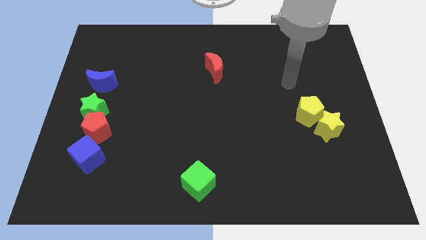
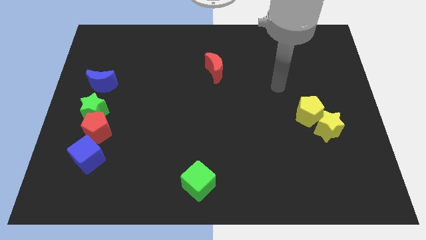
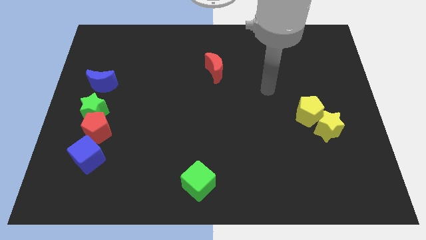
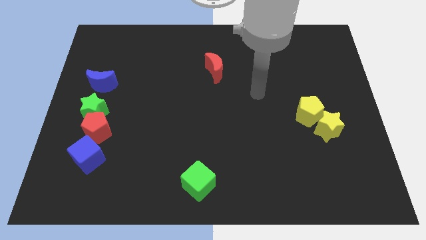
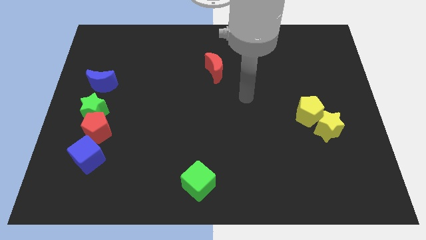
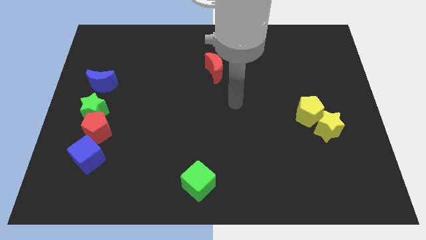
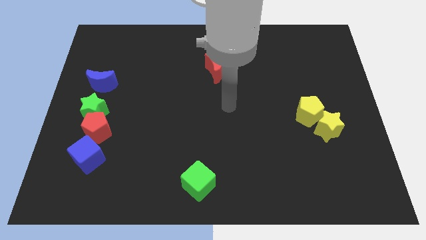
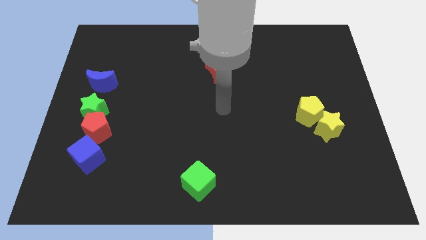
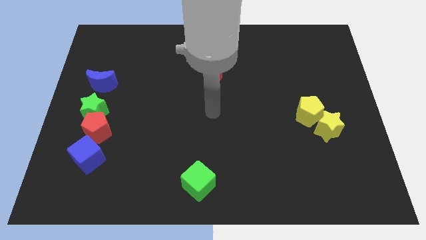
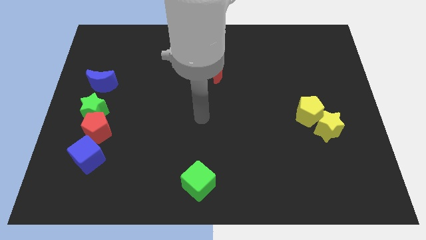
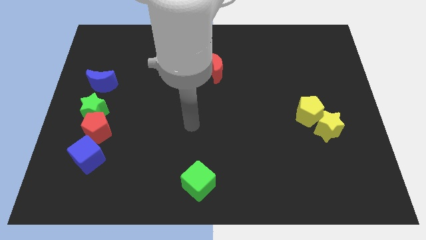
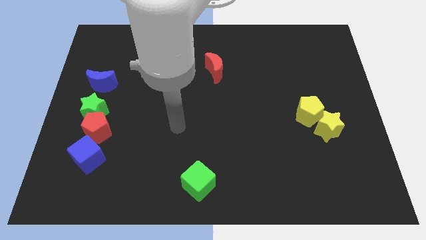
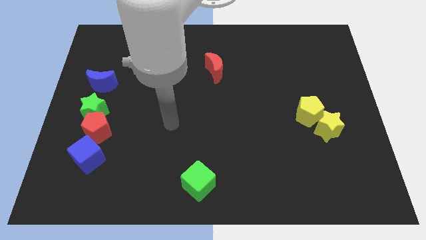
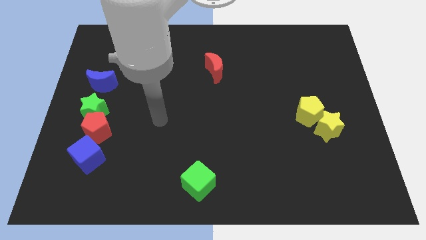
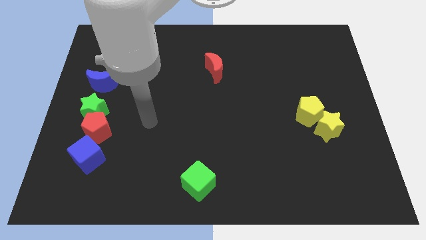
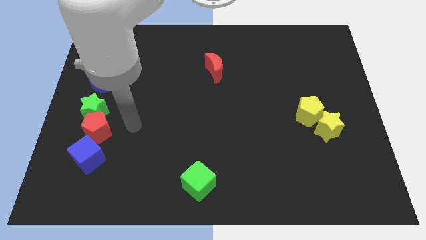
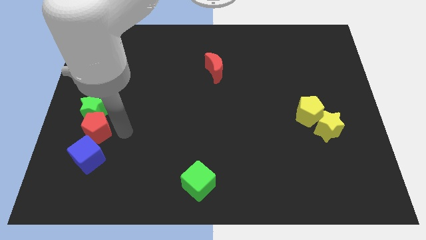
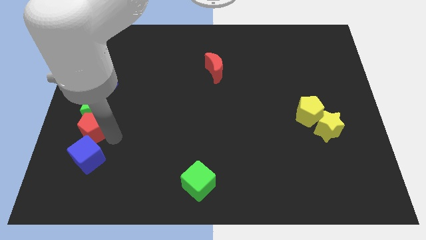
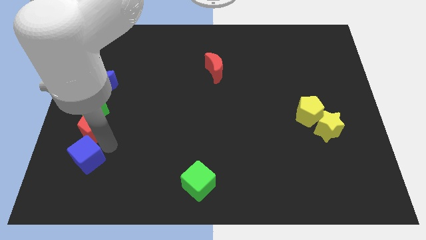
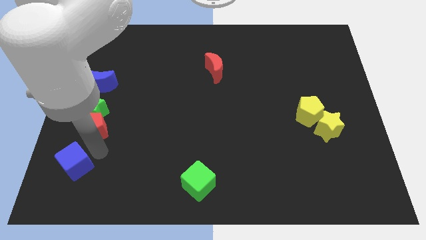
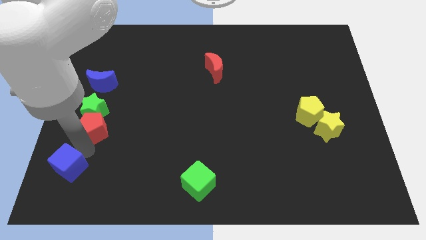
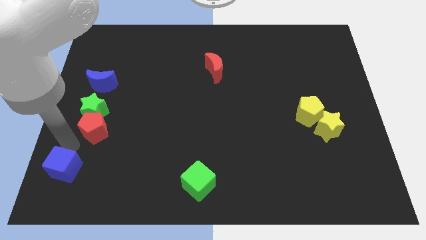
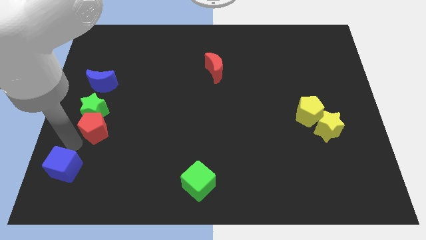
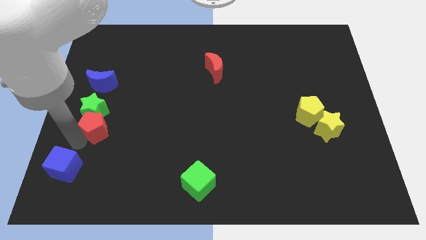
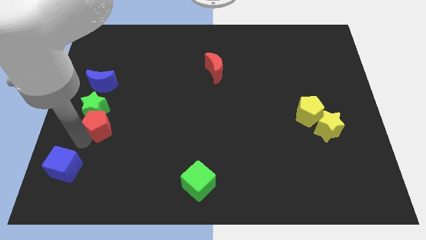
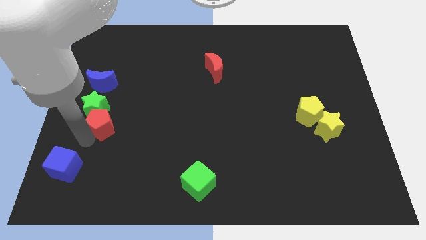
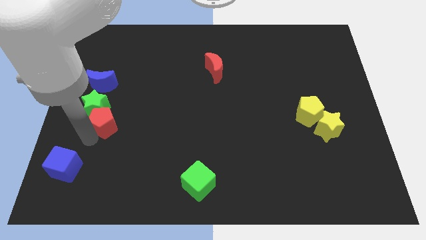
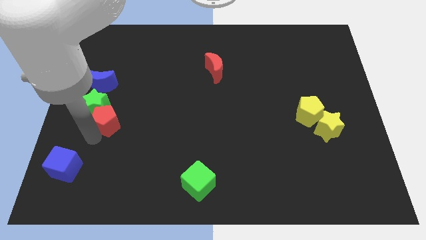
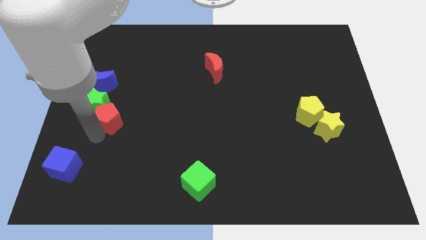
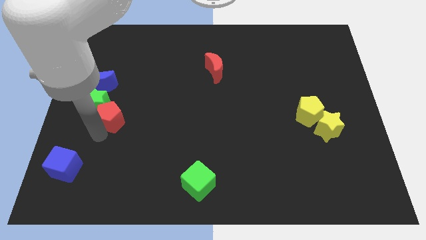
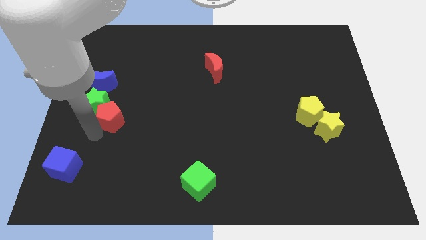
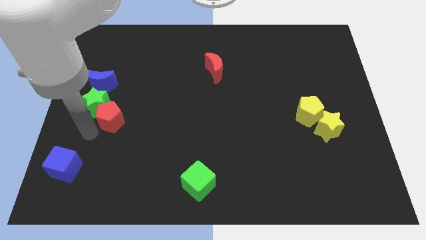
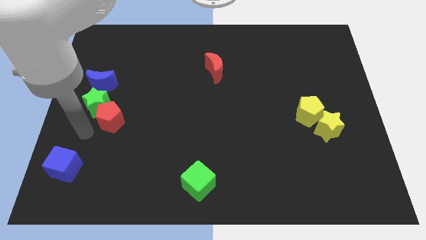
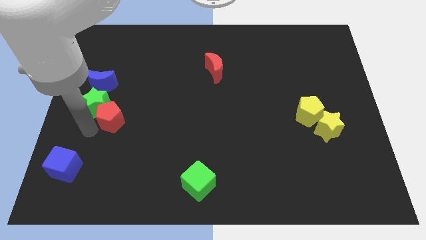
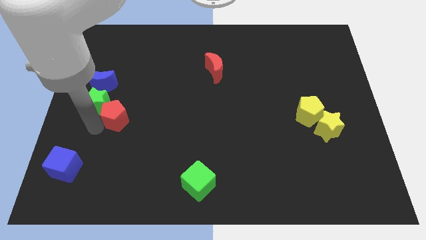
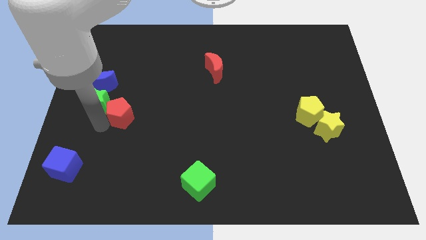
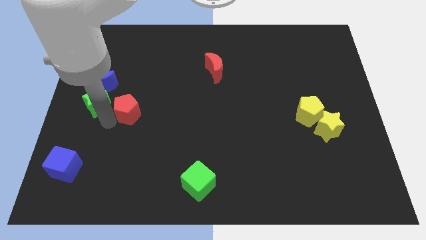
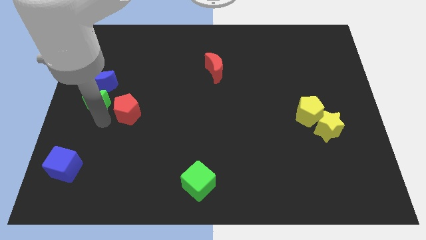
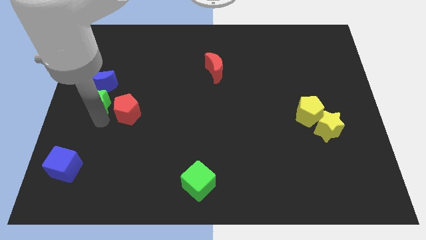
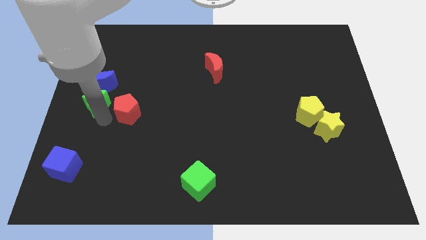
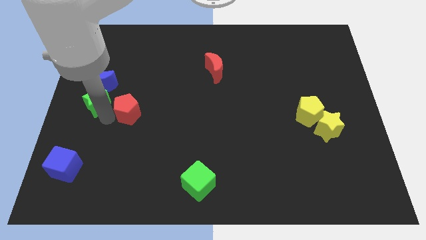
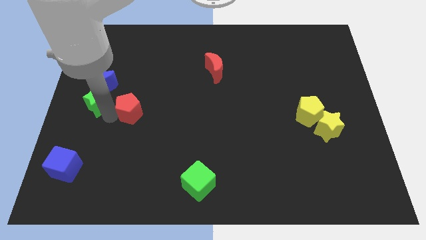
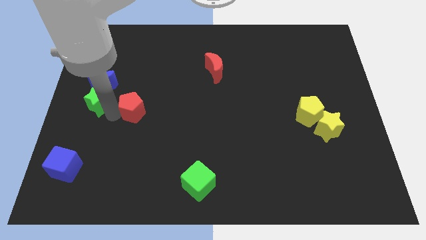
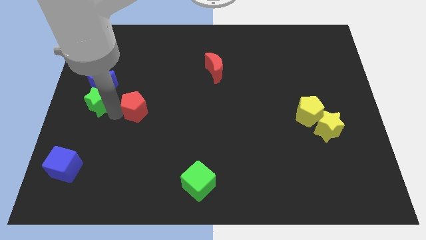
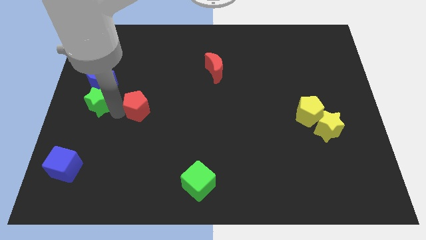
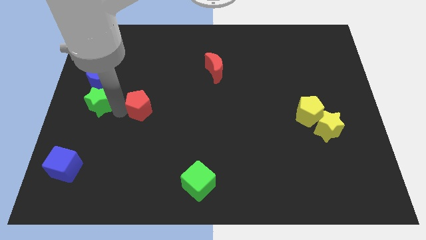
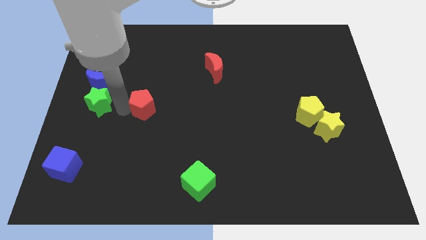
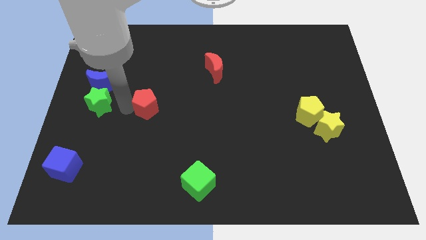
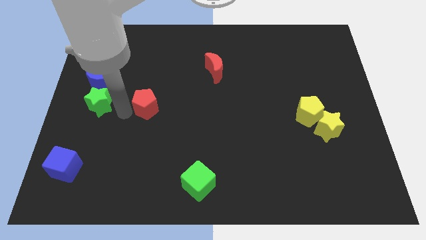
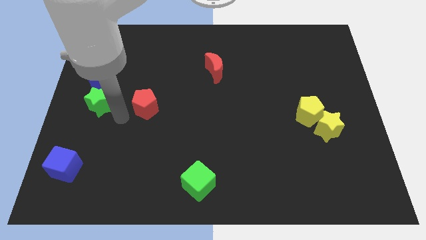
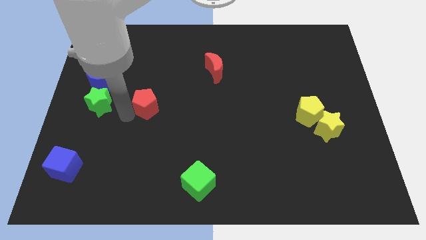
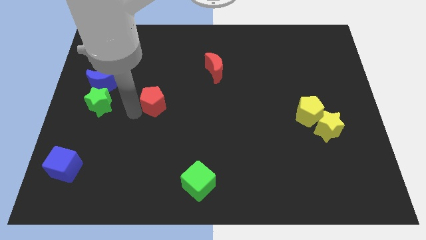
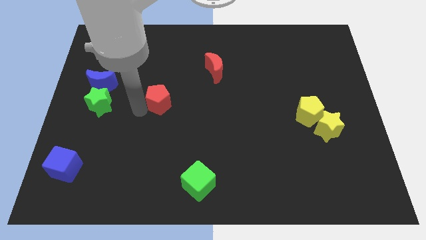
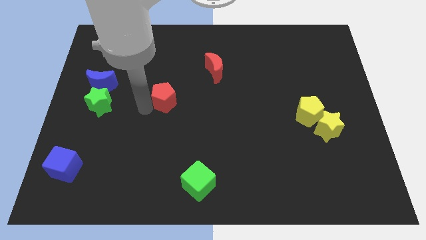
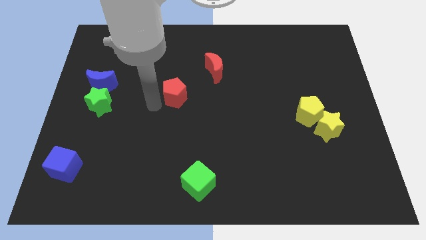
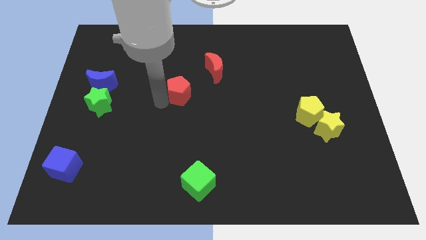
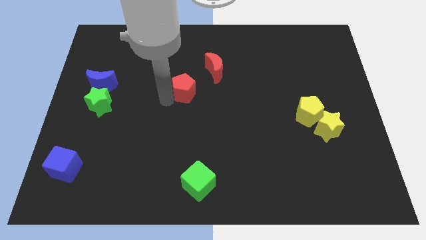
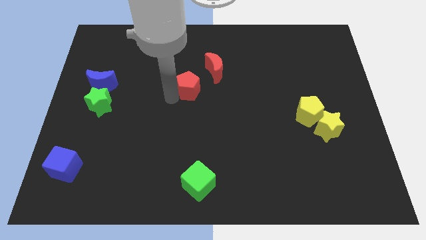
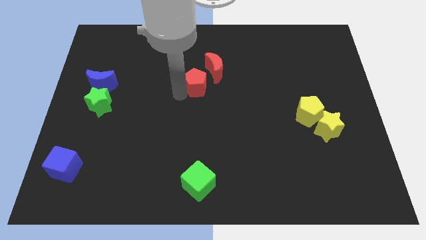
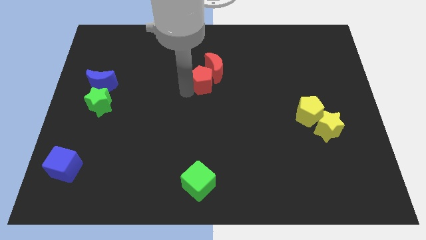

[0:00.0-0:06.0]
push the red pentagon next to the red moon
